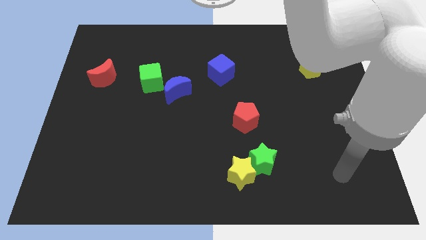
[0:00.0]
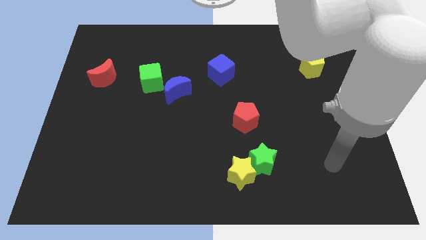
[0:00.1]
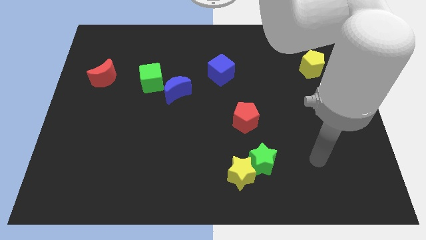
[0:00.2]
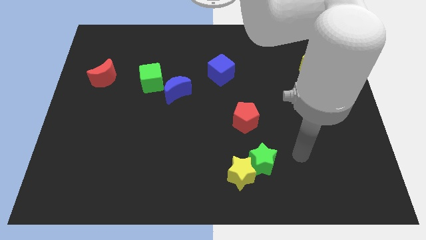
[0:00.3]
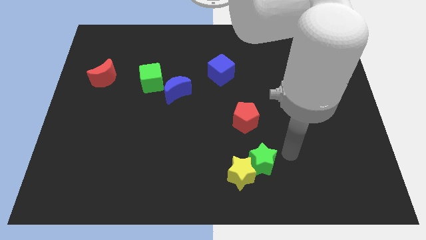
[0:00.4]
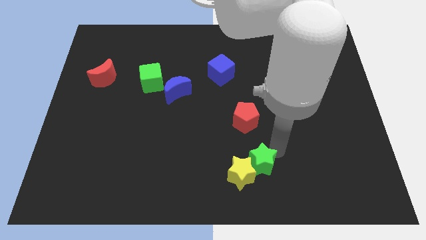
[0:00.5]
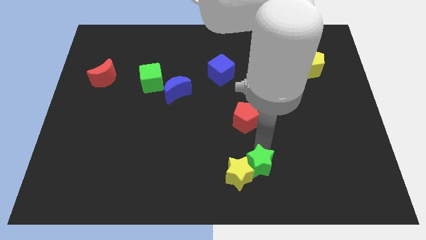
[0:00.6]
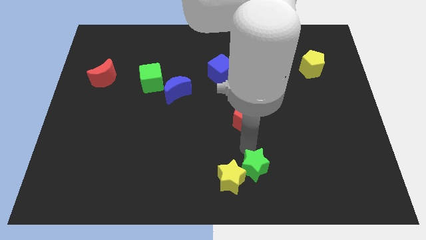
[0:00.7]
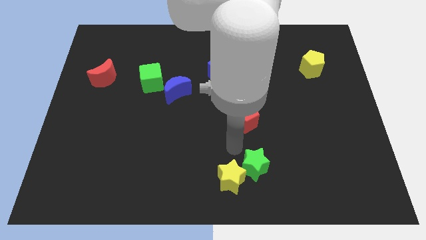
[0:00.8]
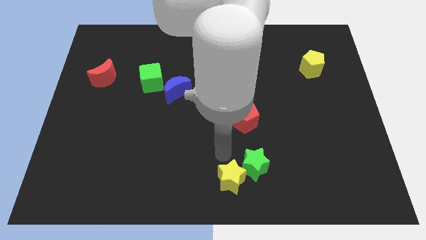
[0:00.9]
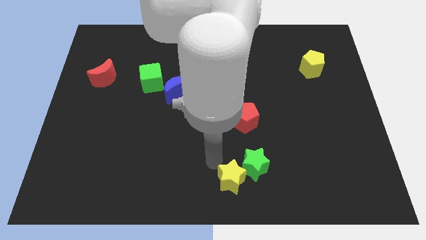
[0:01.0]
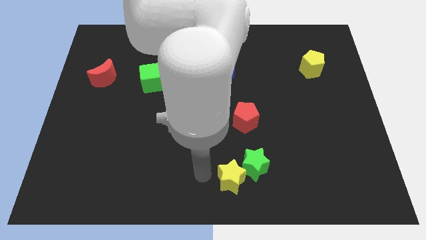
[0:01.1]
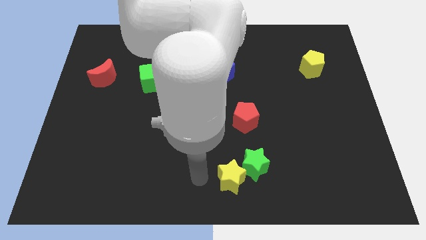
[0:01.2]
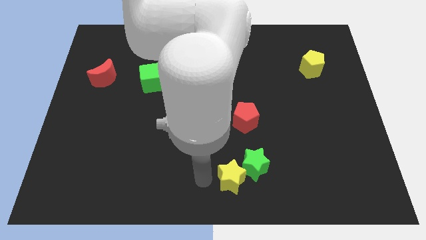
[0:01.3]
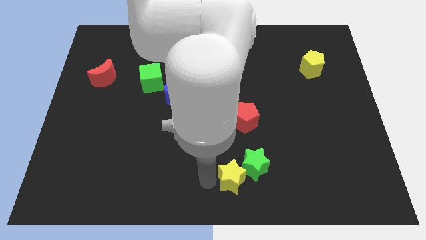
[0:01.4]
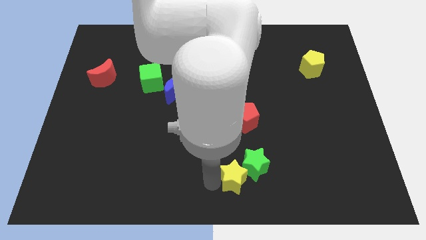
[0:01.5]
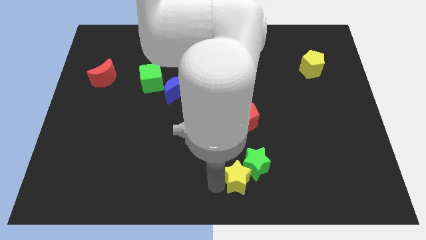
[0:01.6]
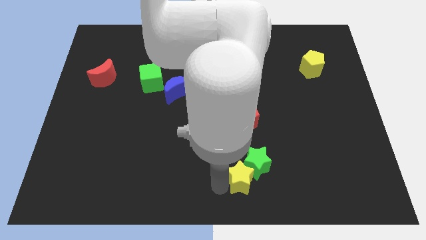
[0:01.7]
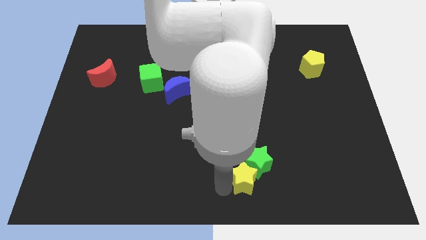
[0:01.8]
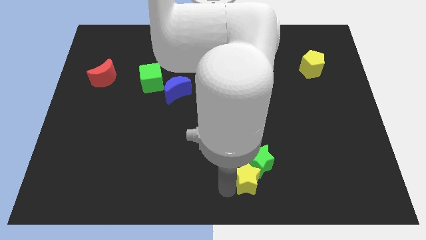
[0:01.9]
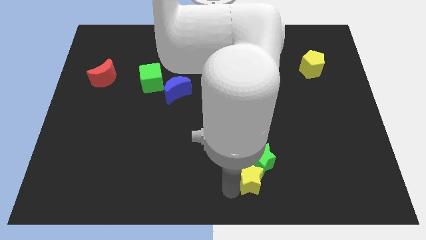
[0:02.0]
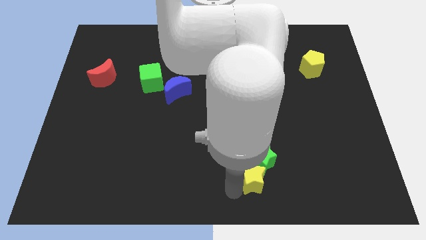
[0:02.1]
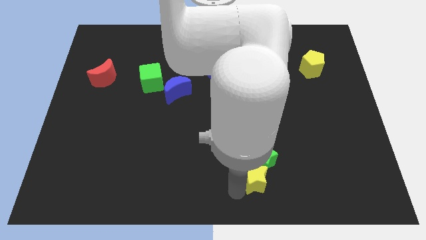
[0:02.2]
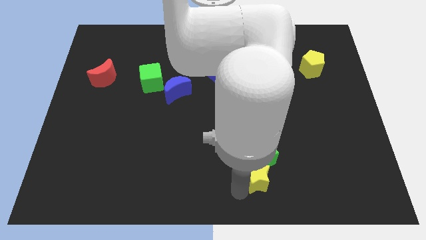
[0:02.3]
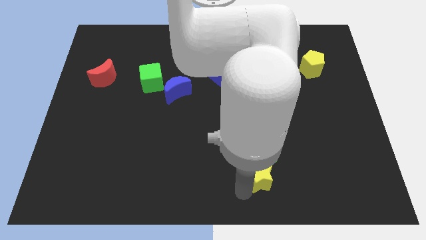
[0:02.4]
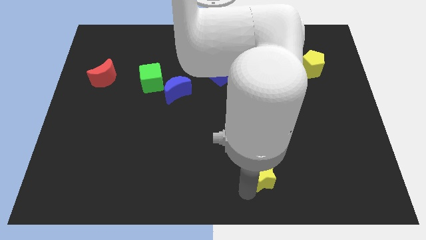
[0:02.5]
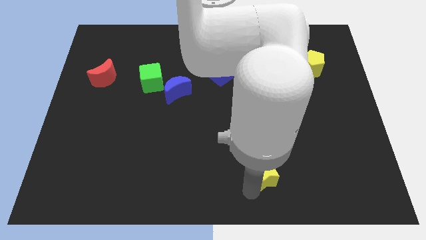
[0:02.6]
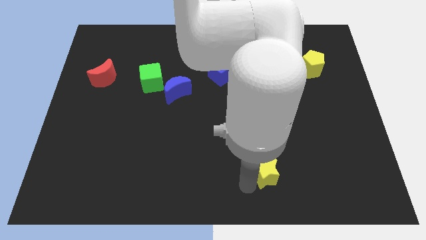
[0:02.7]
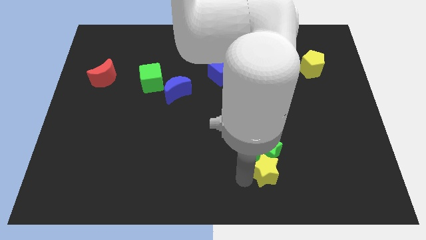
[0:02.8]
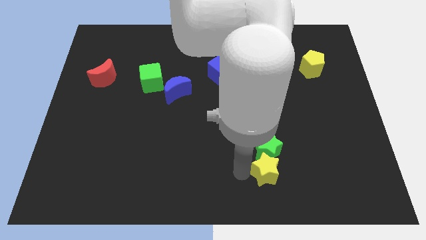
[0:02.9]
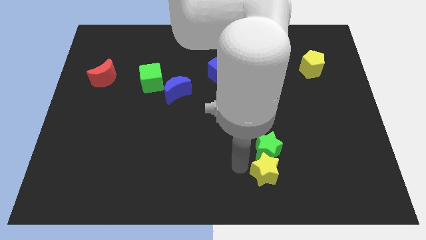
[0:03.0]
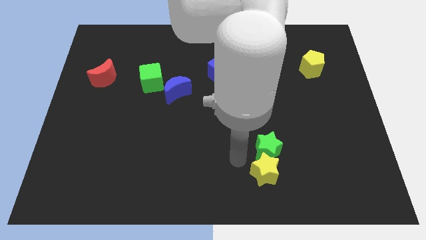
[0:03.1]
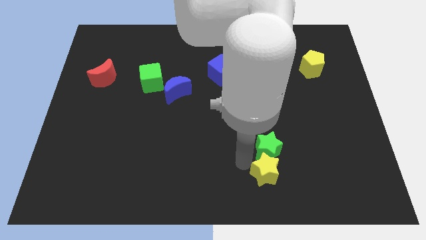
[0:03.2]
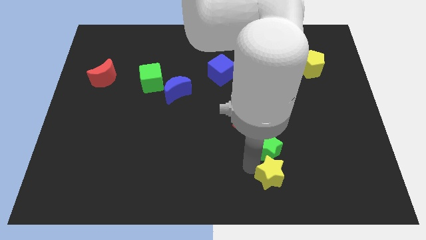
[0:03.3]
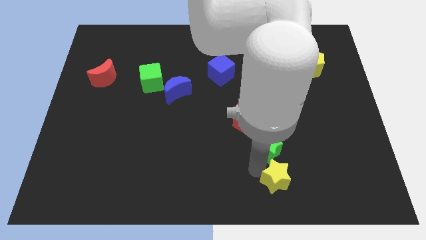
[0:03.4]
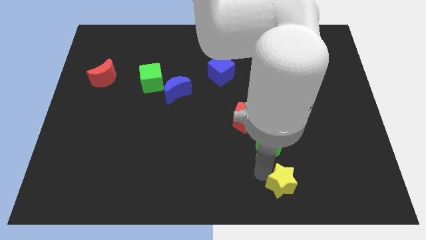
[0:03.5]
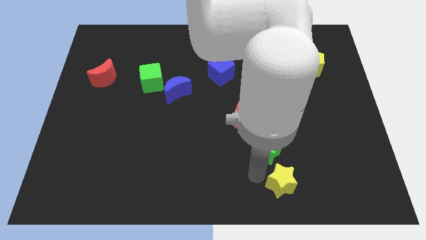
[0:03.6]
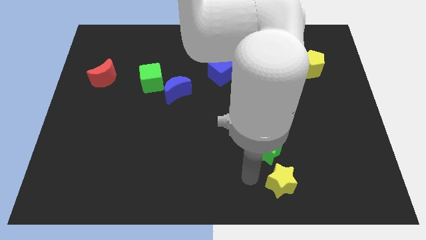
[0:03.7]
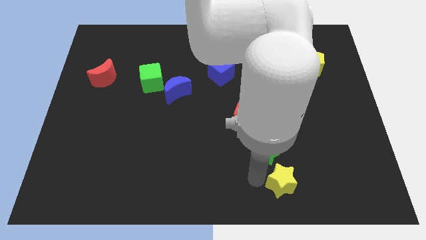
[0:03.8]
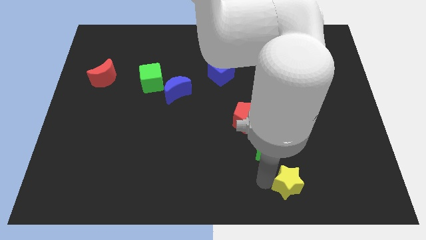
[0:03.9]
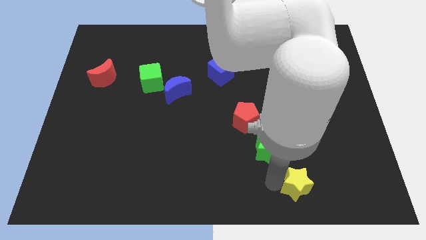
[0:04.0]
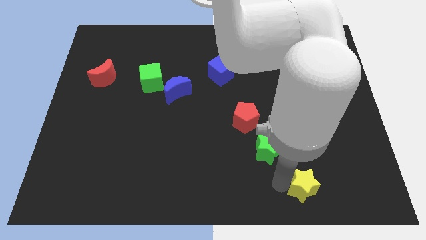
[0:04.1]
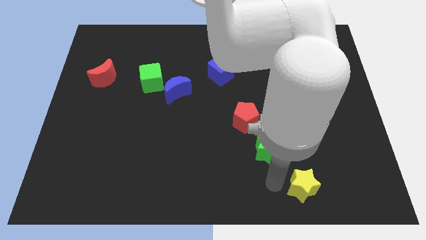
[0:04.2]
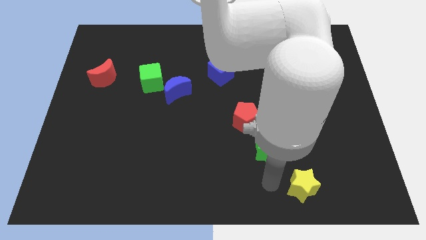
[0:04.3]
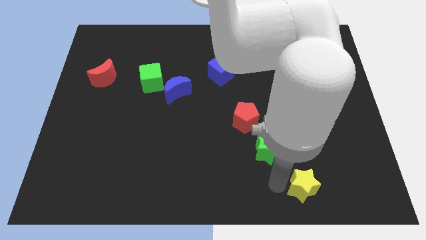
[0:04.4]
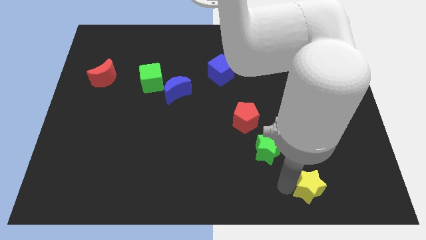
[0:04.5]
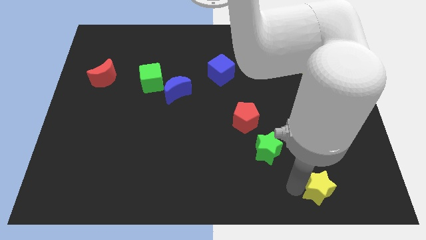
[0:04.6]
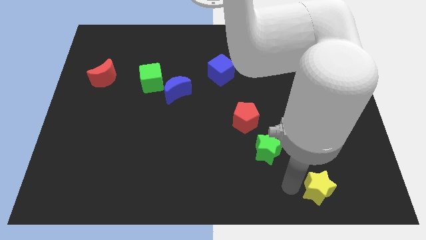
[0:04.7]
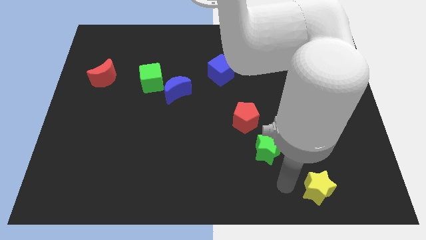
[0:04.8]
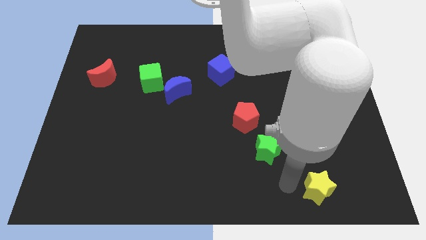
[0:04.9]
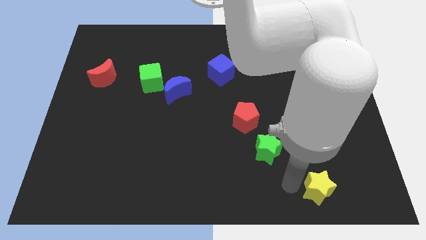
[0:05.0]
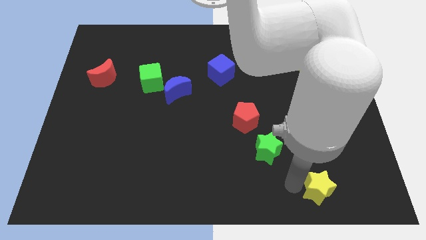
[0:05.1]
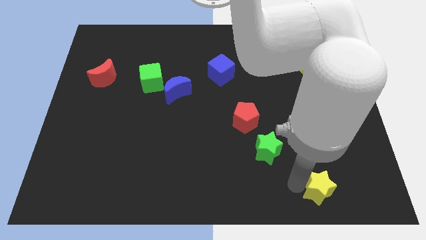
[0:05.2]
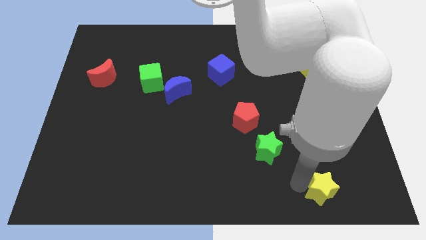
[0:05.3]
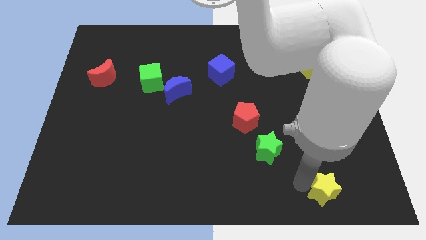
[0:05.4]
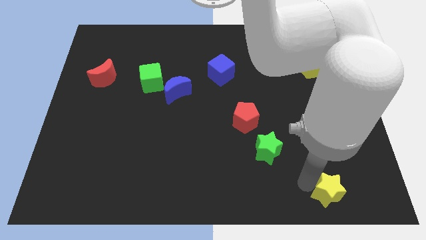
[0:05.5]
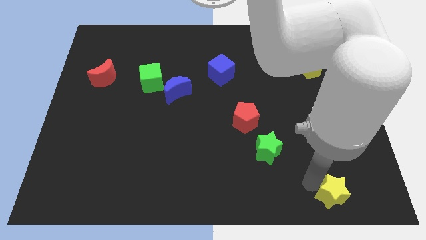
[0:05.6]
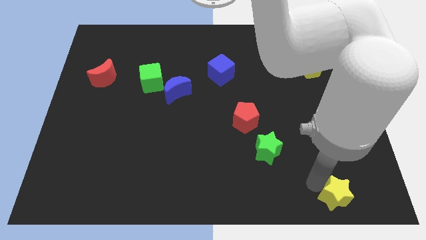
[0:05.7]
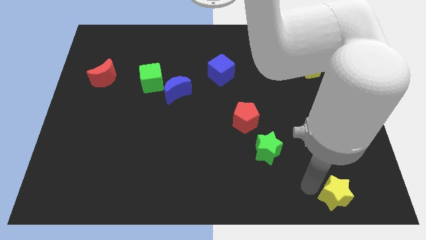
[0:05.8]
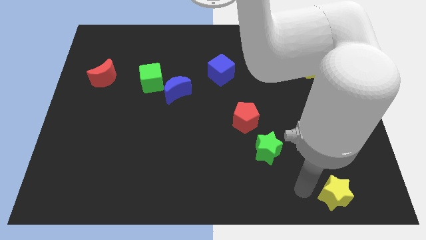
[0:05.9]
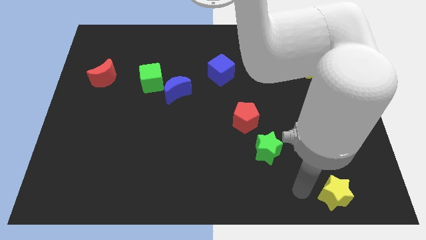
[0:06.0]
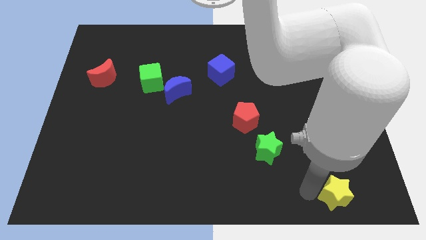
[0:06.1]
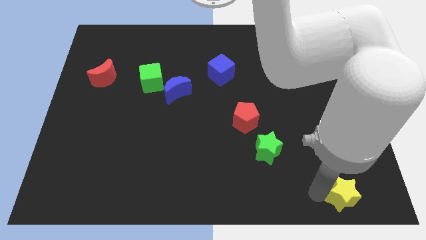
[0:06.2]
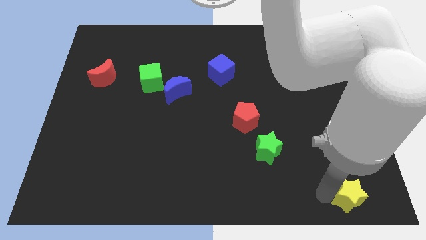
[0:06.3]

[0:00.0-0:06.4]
push the yellow star to the bottom right of the board
